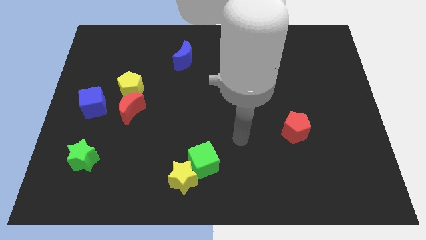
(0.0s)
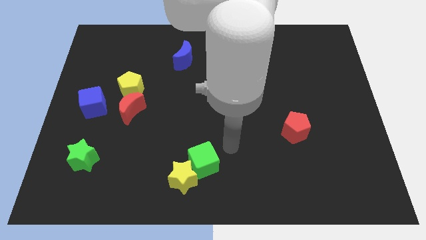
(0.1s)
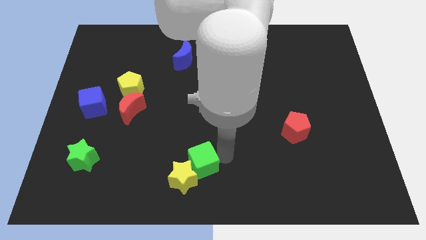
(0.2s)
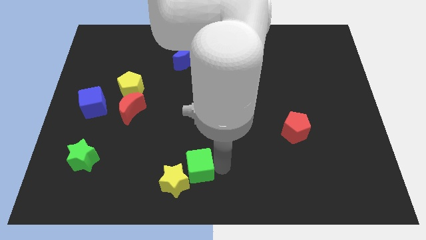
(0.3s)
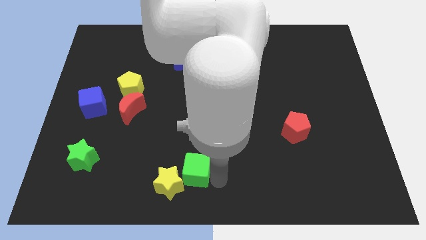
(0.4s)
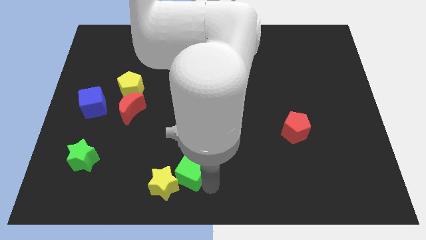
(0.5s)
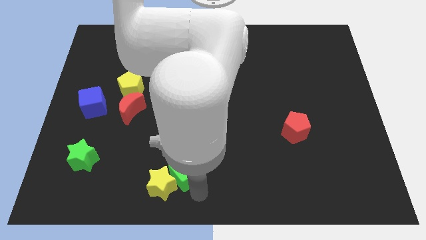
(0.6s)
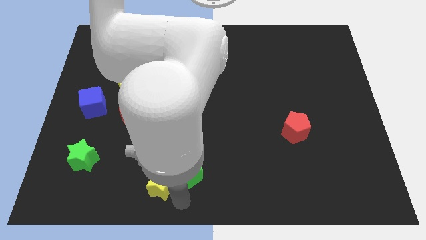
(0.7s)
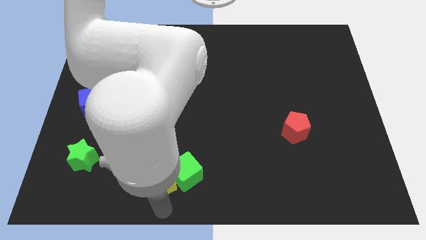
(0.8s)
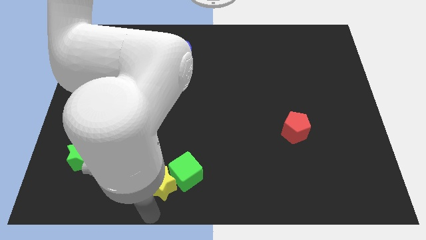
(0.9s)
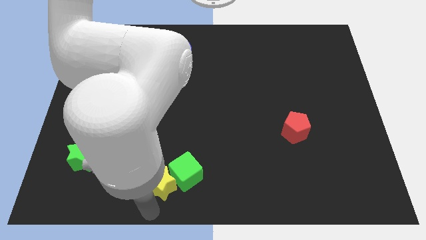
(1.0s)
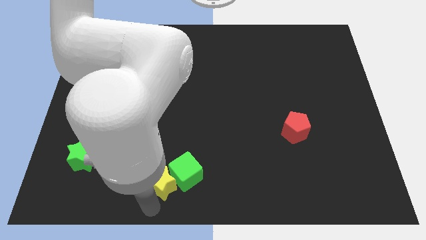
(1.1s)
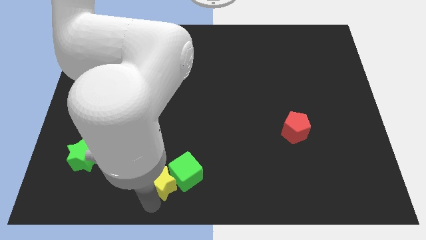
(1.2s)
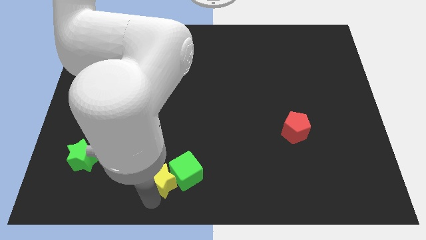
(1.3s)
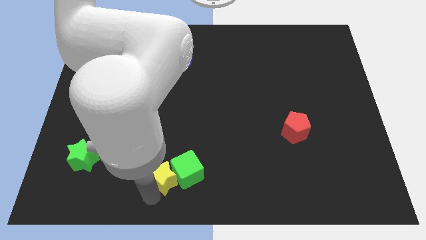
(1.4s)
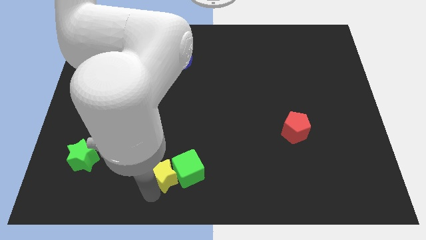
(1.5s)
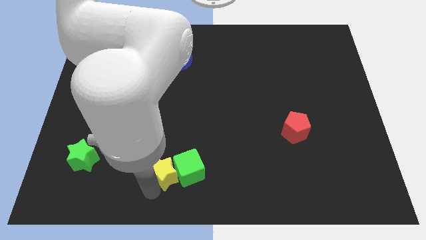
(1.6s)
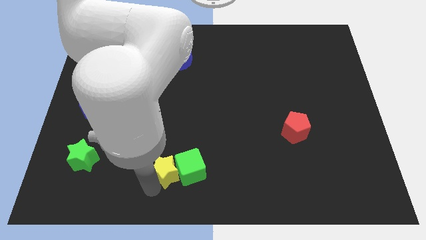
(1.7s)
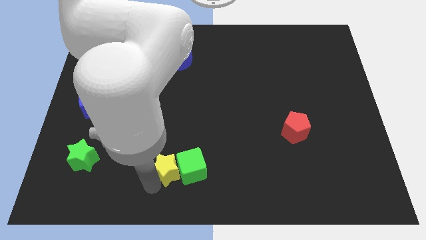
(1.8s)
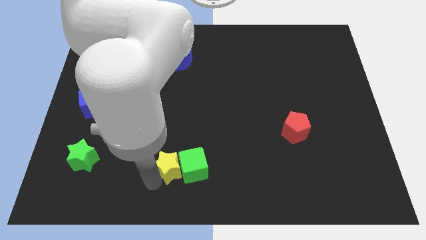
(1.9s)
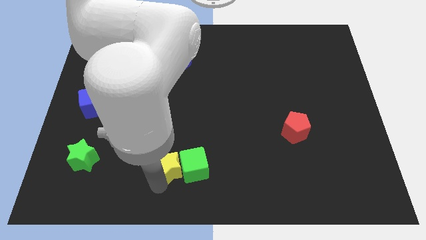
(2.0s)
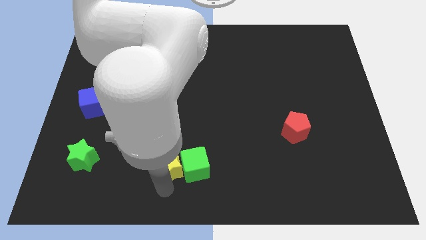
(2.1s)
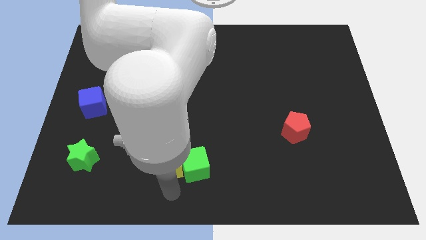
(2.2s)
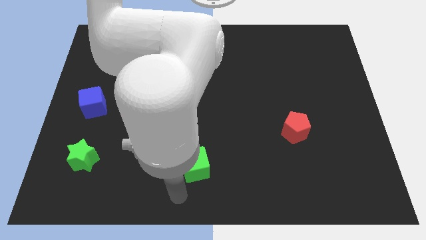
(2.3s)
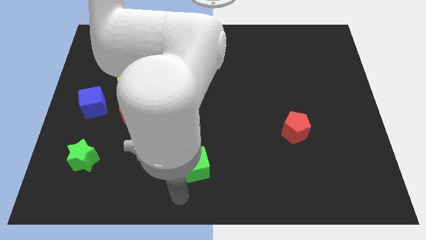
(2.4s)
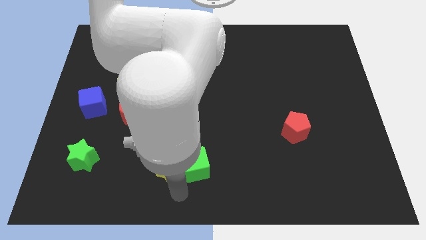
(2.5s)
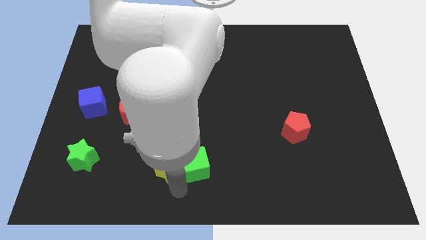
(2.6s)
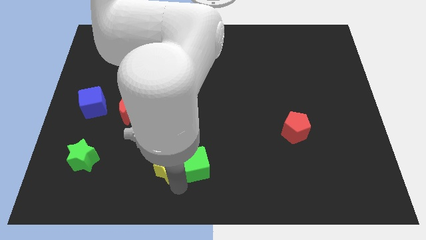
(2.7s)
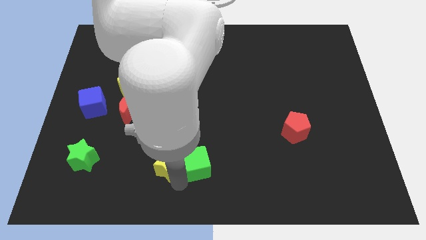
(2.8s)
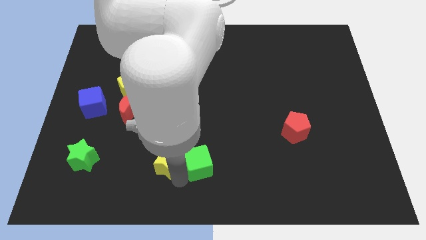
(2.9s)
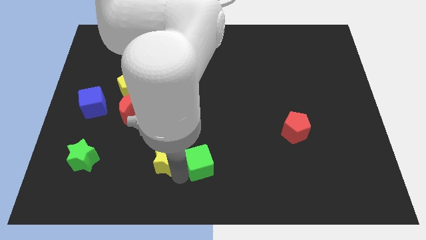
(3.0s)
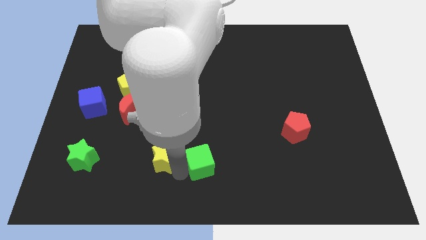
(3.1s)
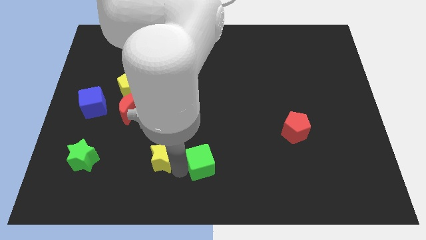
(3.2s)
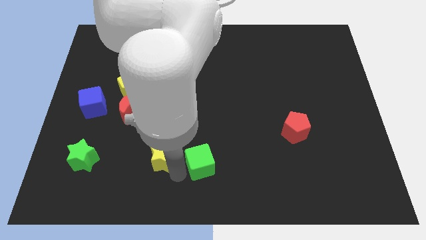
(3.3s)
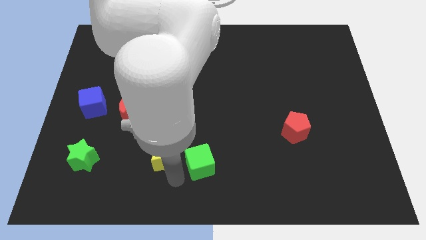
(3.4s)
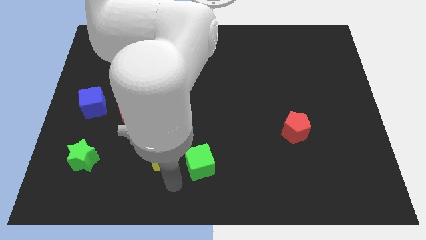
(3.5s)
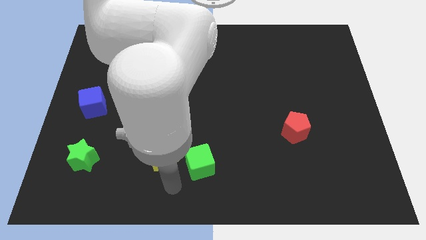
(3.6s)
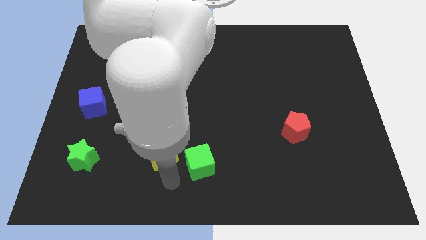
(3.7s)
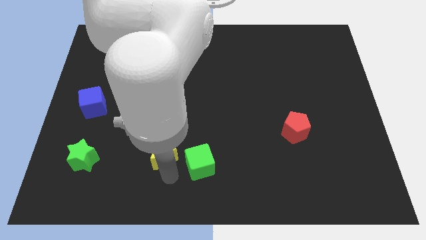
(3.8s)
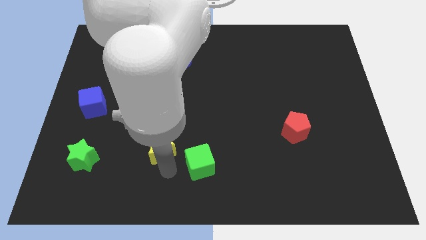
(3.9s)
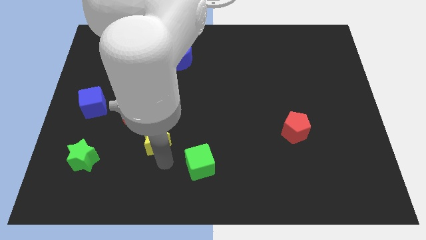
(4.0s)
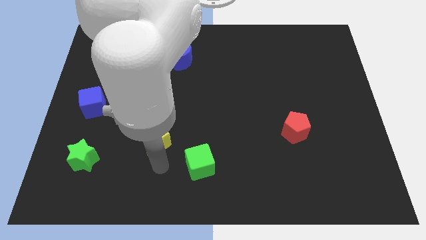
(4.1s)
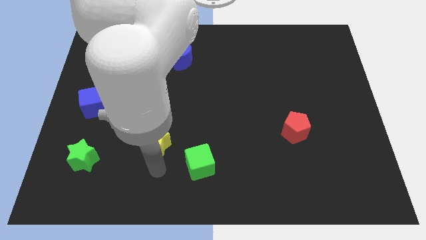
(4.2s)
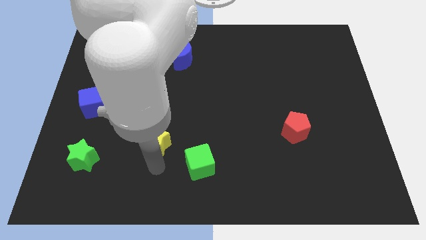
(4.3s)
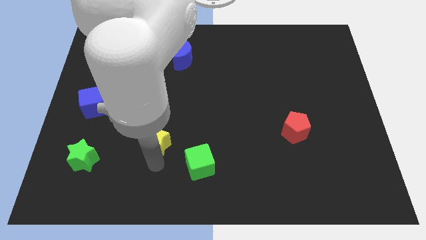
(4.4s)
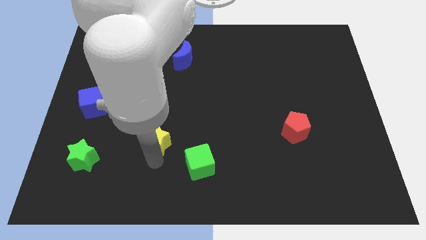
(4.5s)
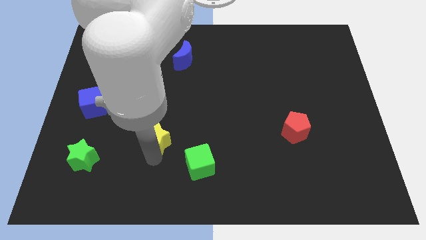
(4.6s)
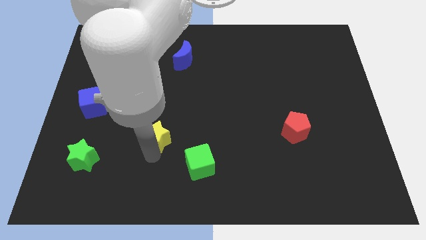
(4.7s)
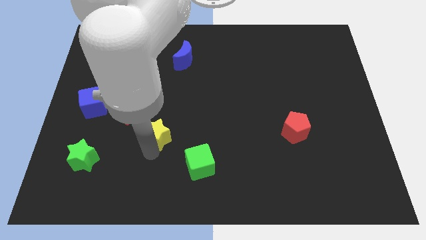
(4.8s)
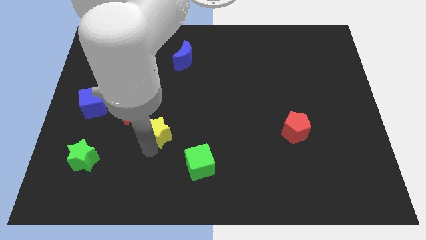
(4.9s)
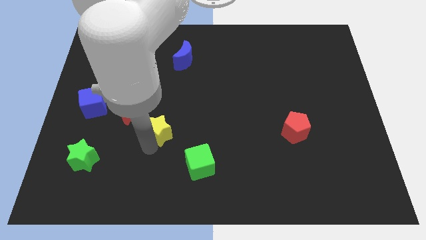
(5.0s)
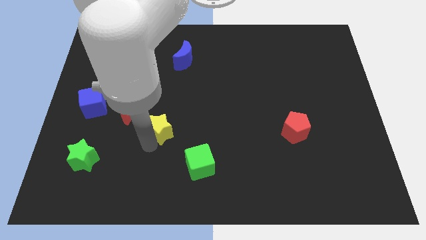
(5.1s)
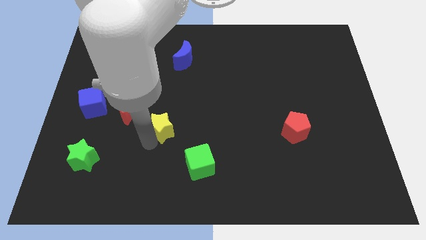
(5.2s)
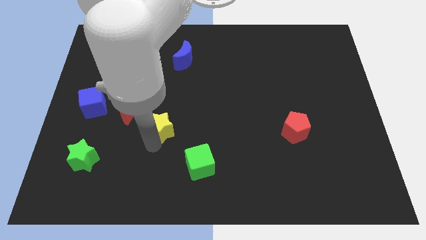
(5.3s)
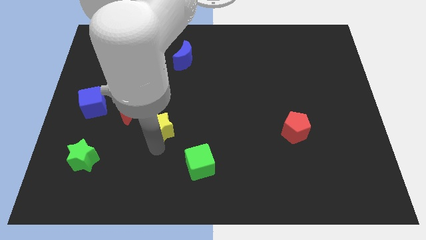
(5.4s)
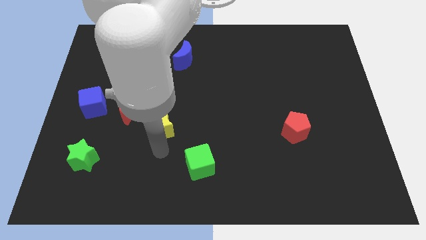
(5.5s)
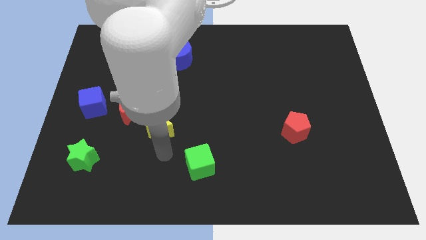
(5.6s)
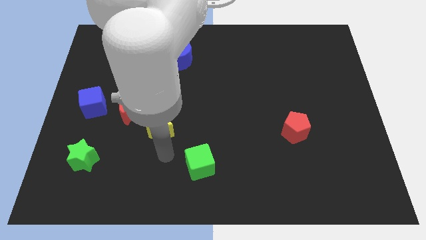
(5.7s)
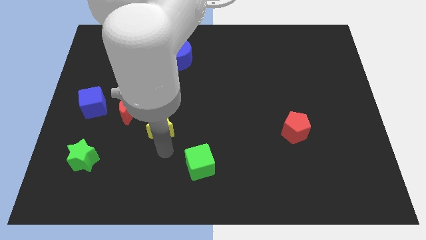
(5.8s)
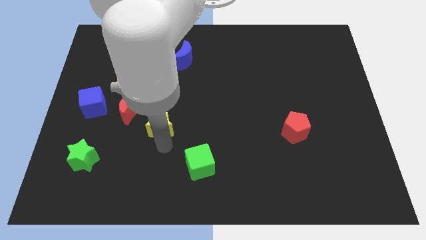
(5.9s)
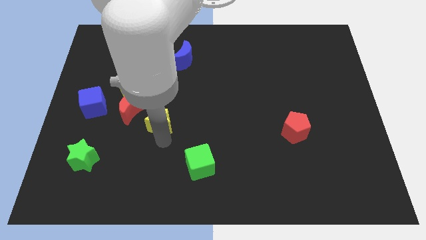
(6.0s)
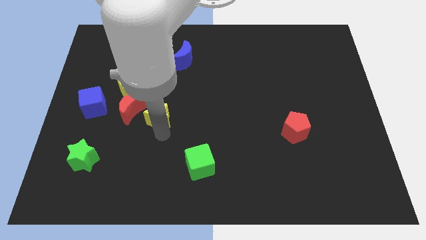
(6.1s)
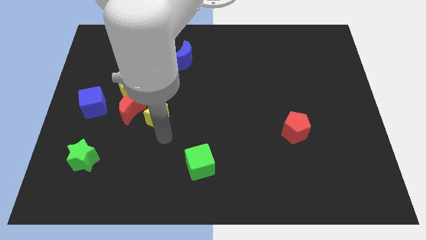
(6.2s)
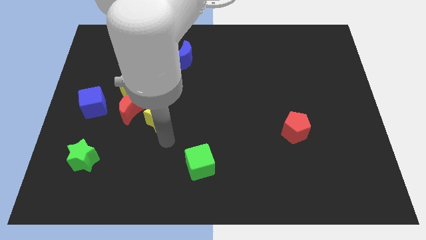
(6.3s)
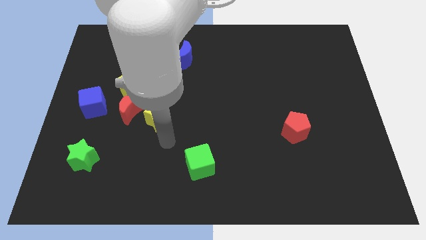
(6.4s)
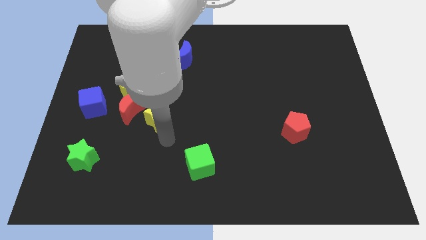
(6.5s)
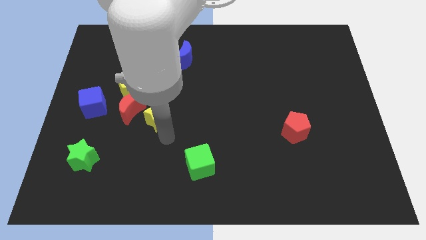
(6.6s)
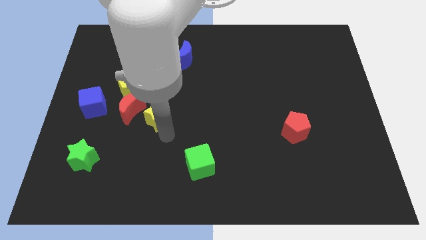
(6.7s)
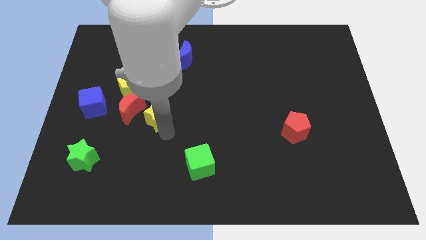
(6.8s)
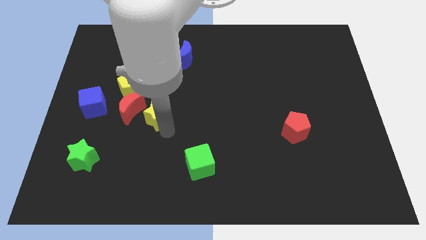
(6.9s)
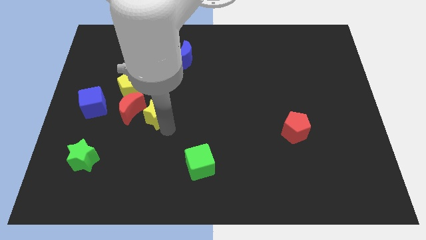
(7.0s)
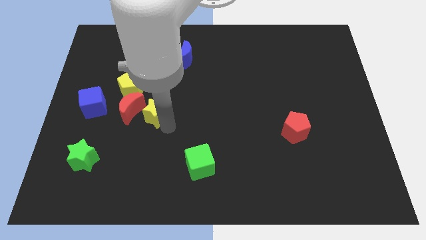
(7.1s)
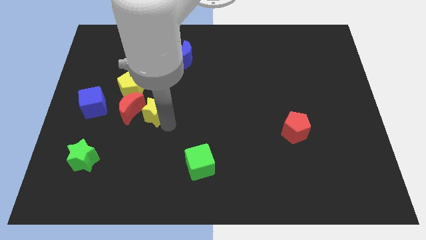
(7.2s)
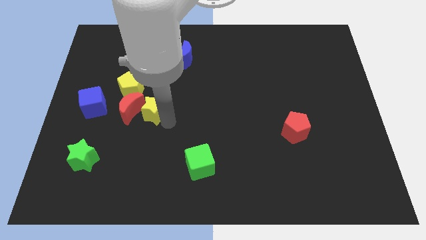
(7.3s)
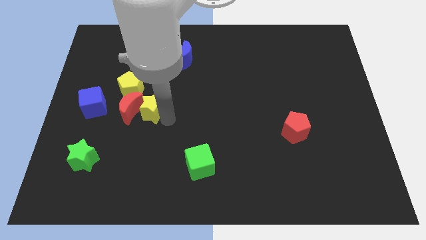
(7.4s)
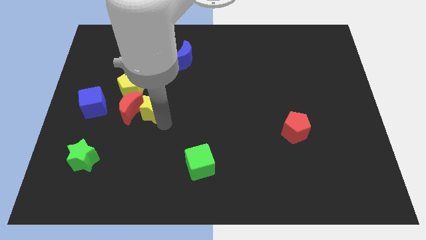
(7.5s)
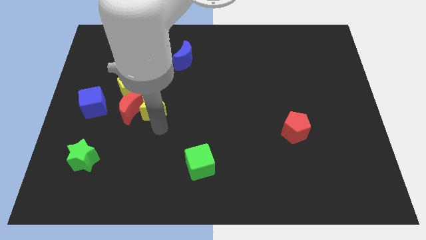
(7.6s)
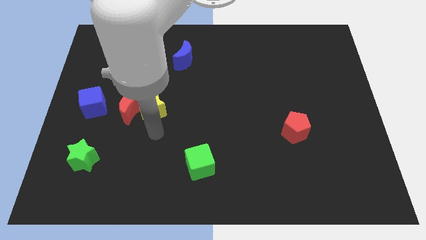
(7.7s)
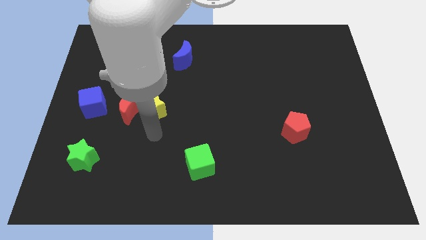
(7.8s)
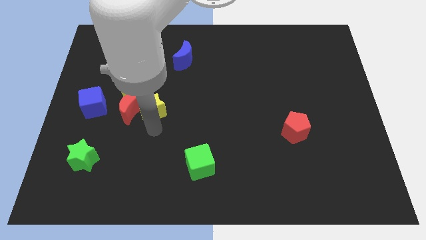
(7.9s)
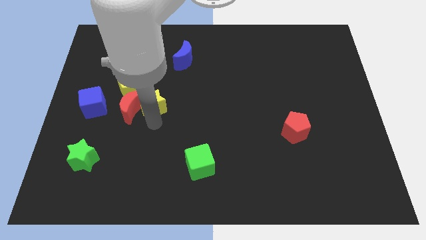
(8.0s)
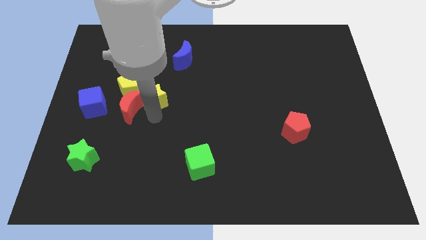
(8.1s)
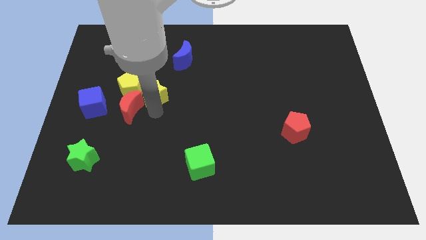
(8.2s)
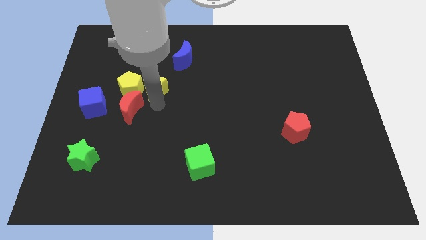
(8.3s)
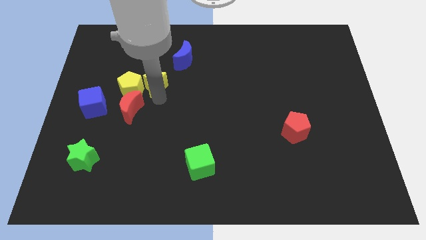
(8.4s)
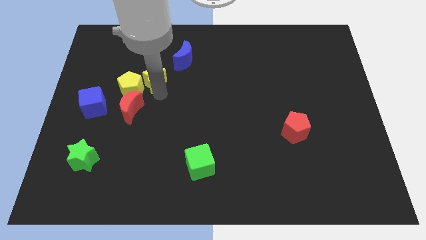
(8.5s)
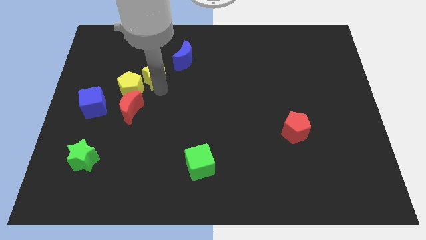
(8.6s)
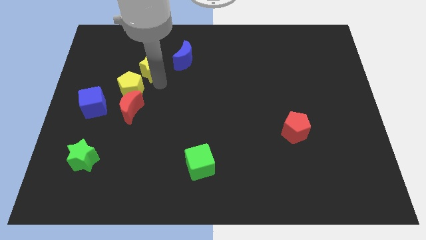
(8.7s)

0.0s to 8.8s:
push the yellow star to the top of the yellow pentagon
